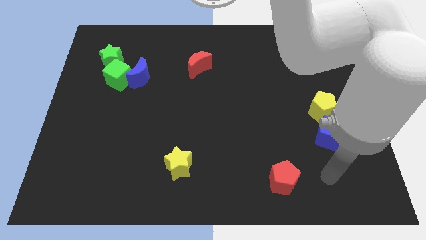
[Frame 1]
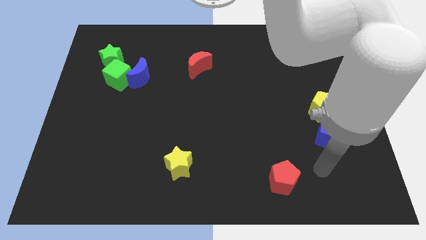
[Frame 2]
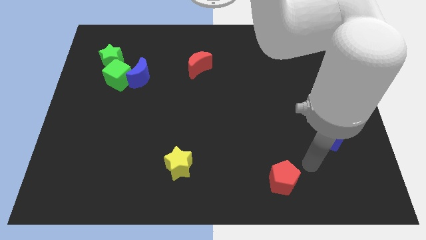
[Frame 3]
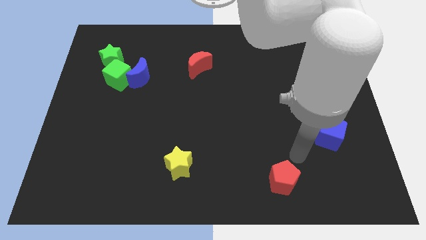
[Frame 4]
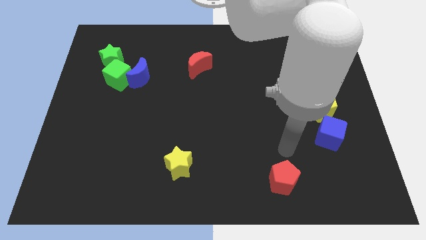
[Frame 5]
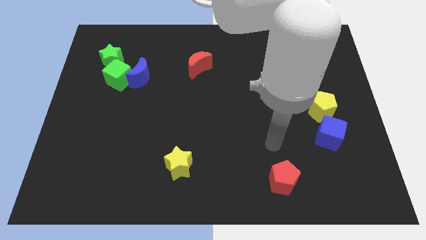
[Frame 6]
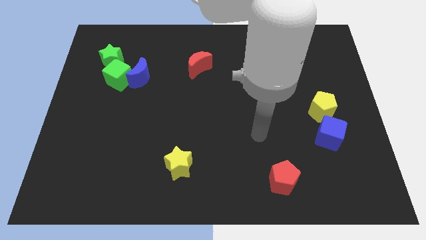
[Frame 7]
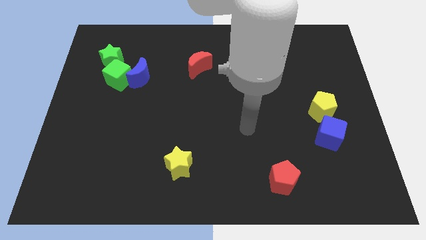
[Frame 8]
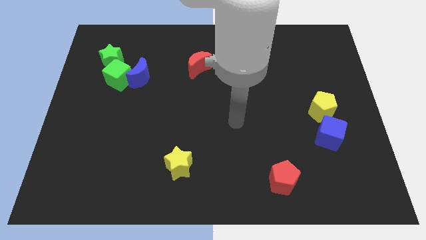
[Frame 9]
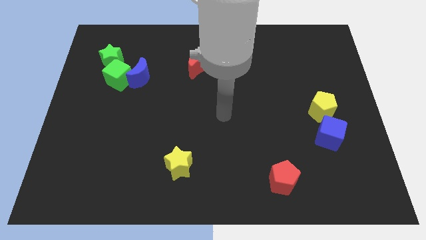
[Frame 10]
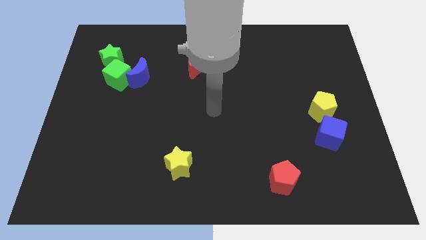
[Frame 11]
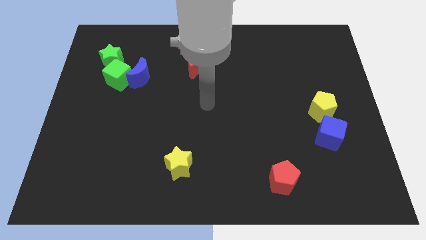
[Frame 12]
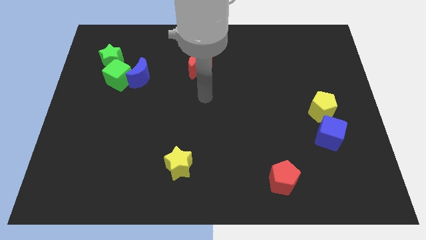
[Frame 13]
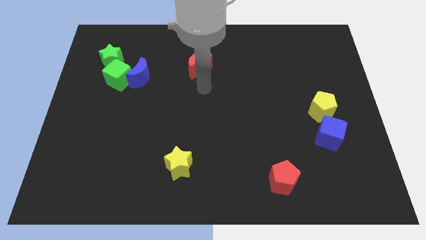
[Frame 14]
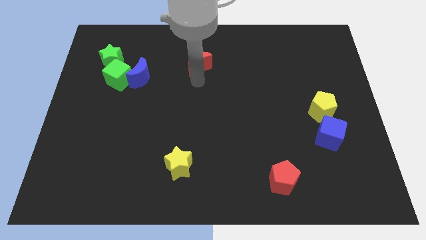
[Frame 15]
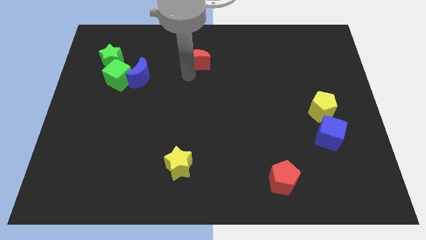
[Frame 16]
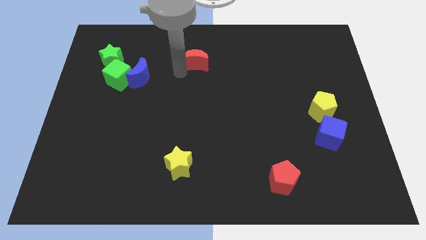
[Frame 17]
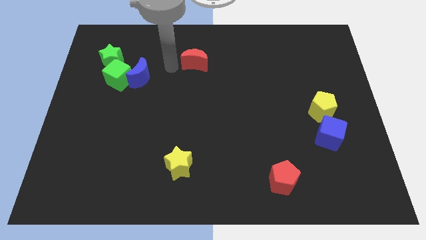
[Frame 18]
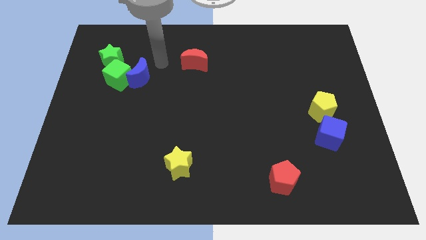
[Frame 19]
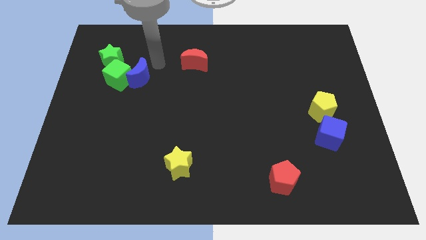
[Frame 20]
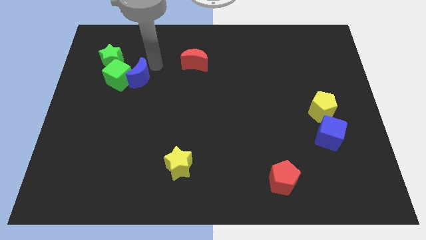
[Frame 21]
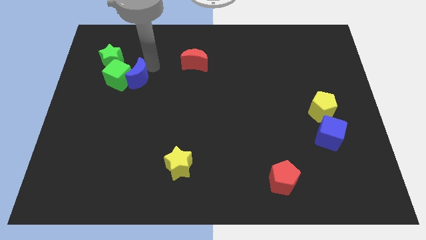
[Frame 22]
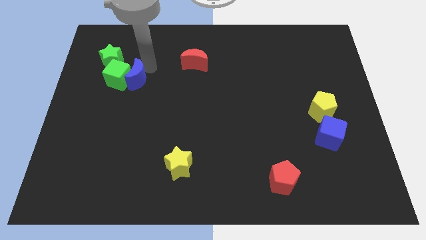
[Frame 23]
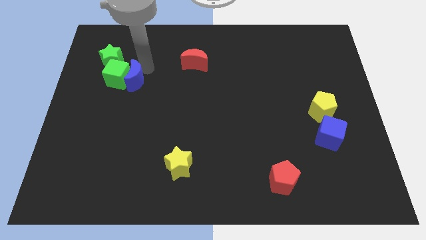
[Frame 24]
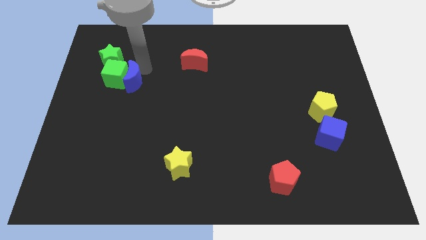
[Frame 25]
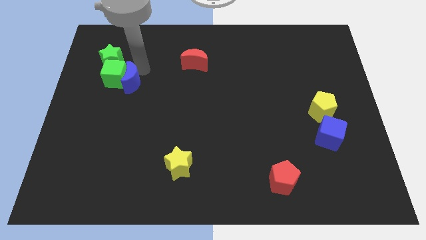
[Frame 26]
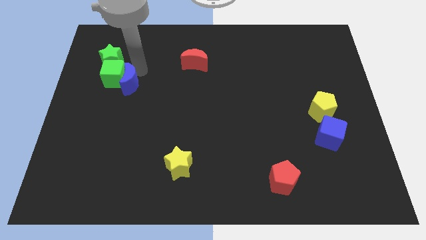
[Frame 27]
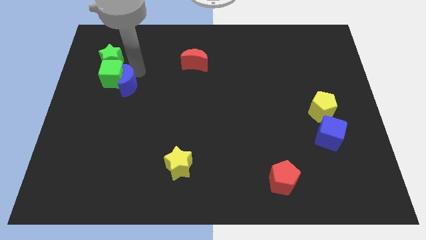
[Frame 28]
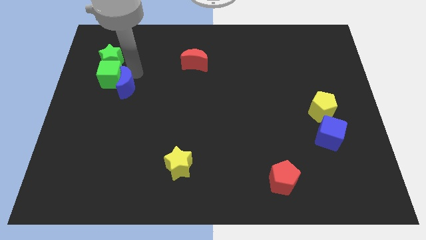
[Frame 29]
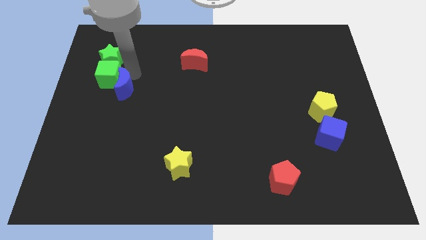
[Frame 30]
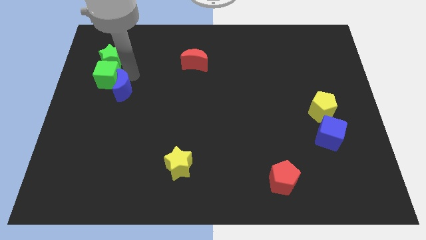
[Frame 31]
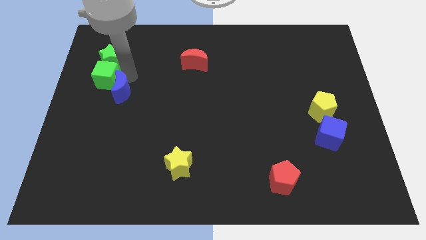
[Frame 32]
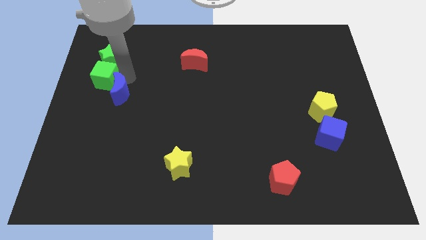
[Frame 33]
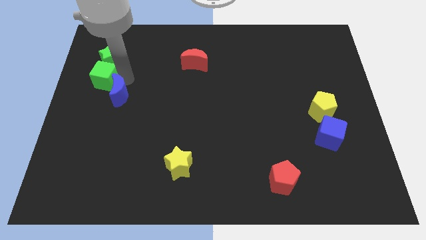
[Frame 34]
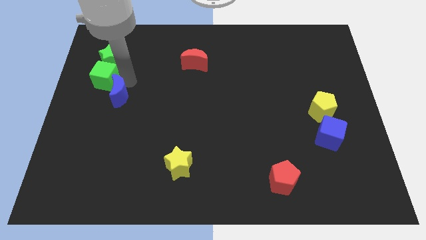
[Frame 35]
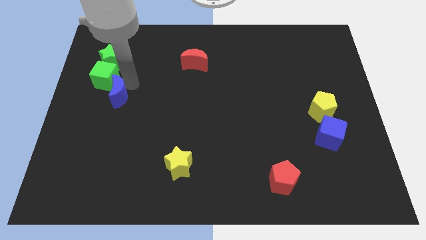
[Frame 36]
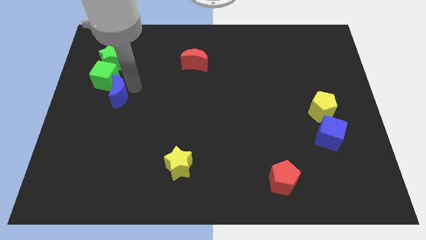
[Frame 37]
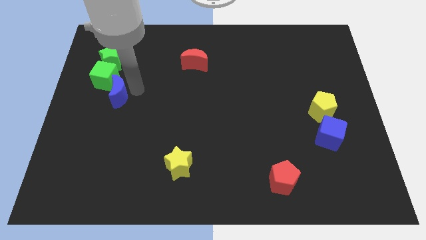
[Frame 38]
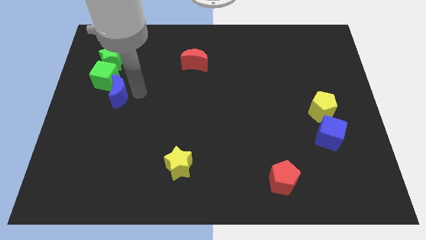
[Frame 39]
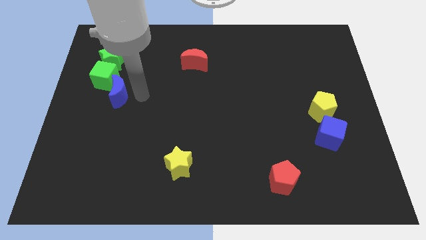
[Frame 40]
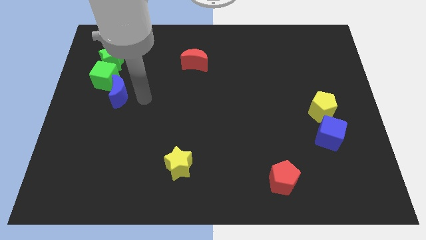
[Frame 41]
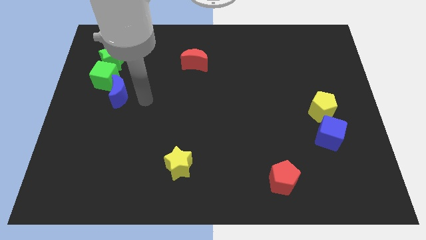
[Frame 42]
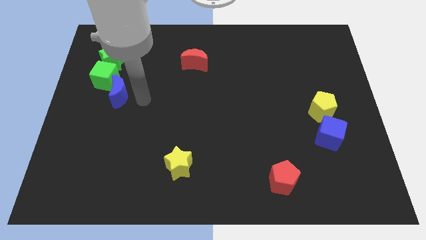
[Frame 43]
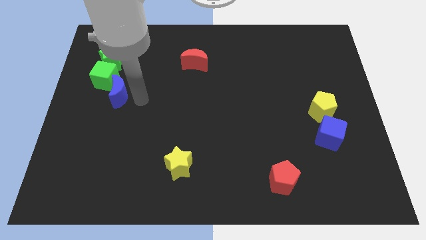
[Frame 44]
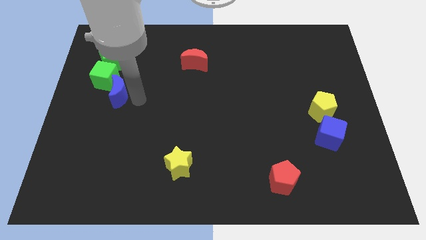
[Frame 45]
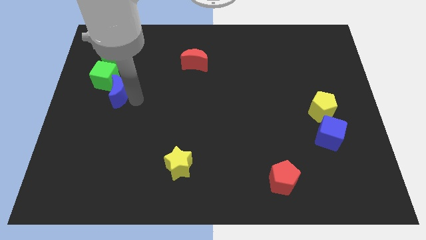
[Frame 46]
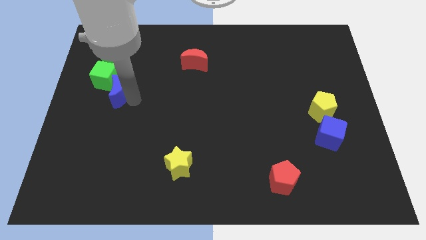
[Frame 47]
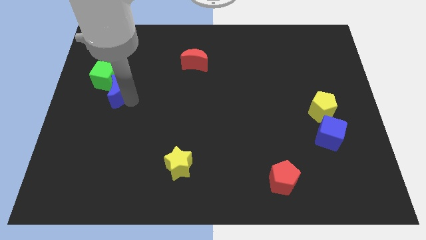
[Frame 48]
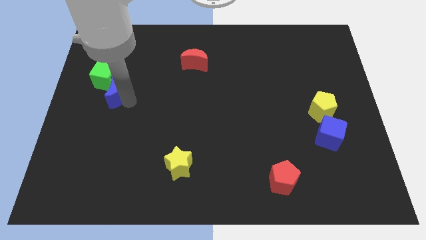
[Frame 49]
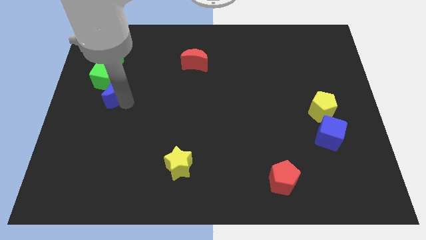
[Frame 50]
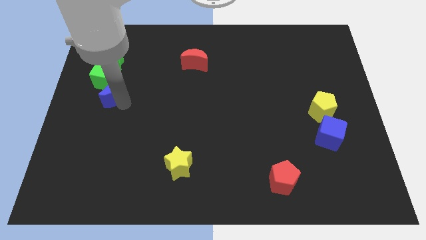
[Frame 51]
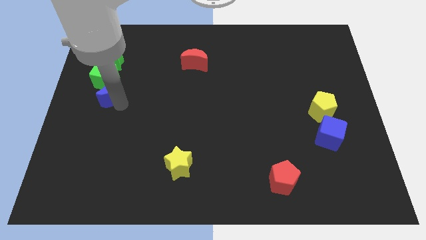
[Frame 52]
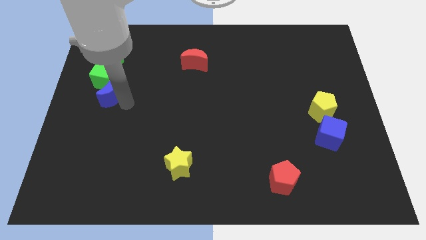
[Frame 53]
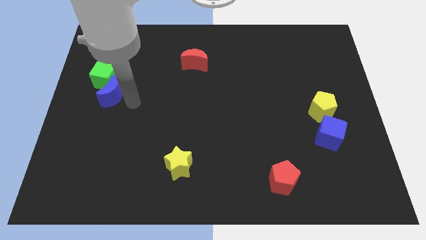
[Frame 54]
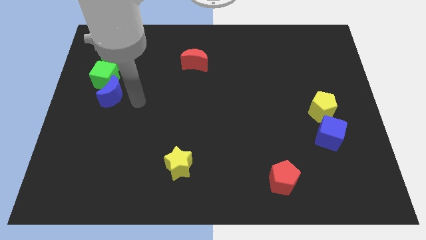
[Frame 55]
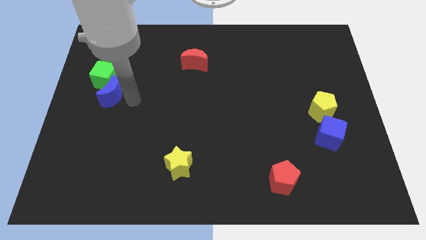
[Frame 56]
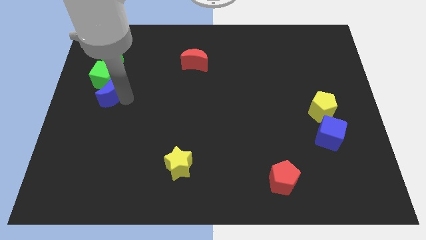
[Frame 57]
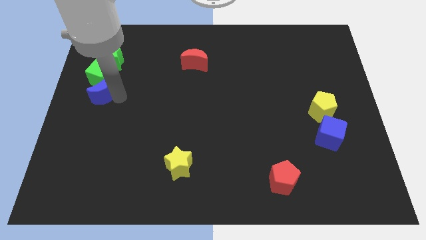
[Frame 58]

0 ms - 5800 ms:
put the blue moon to the center left
